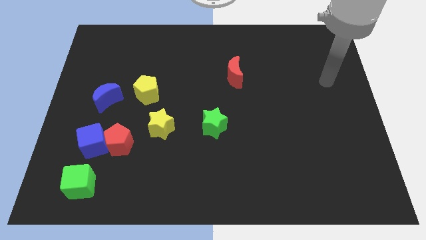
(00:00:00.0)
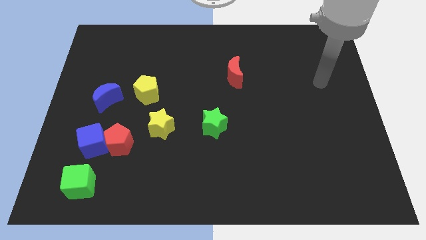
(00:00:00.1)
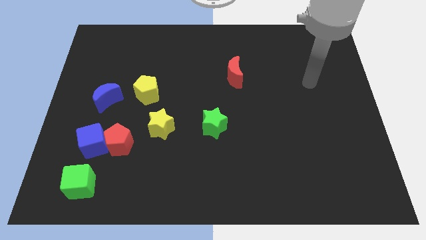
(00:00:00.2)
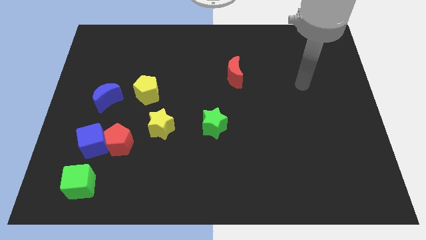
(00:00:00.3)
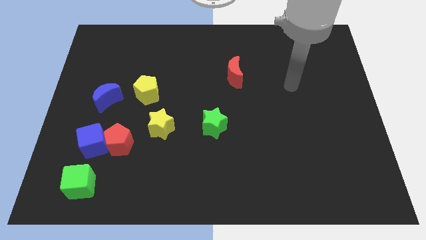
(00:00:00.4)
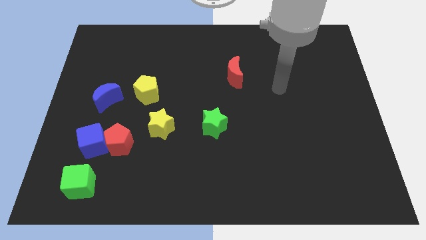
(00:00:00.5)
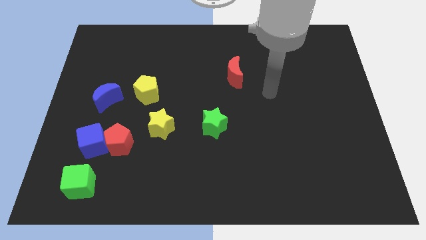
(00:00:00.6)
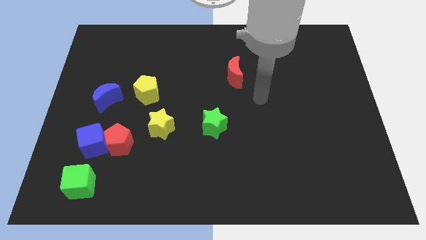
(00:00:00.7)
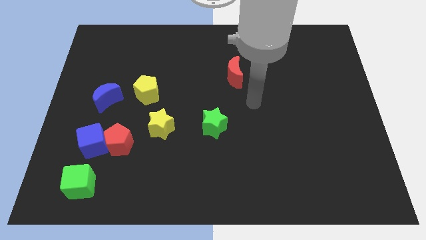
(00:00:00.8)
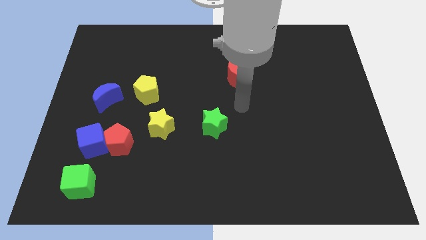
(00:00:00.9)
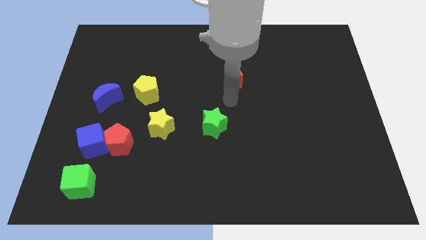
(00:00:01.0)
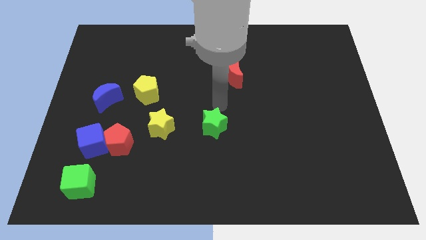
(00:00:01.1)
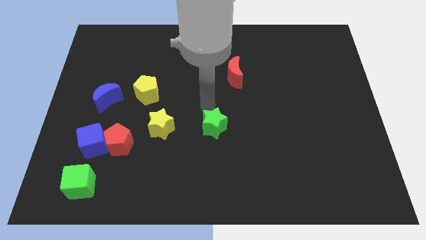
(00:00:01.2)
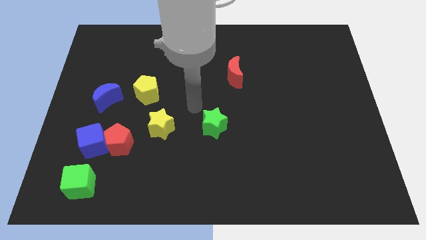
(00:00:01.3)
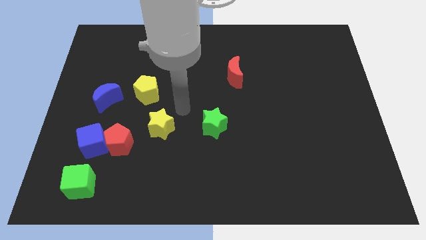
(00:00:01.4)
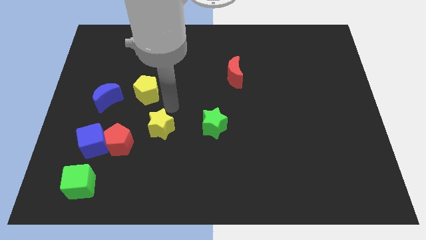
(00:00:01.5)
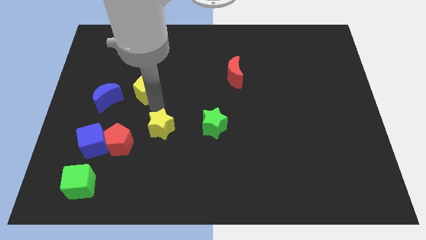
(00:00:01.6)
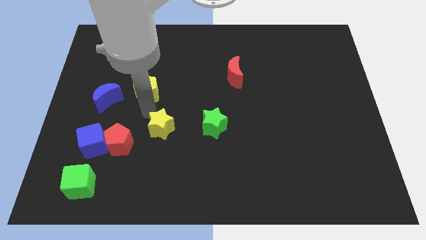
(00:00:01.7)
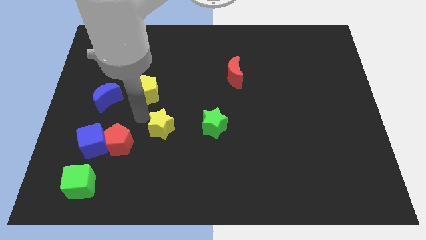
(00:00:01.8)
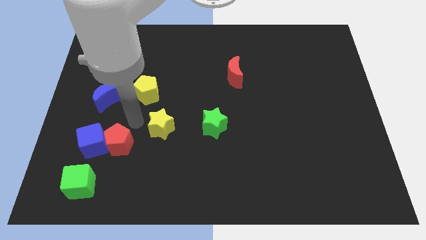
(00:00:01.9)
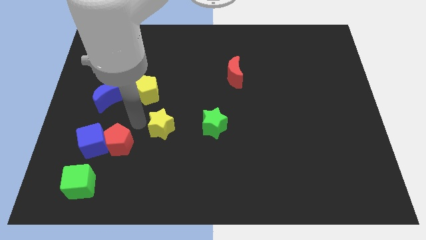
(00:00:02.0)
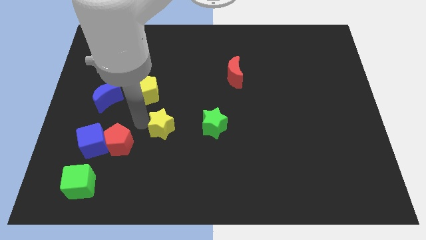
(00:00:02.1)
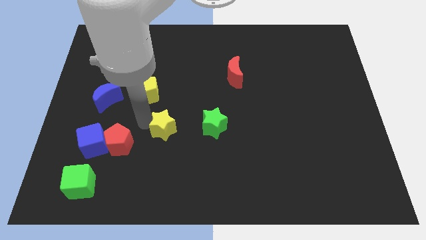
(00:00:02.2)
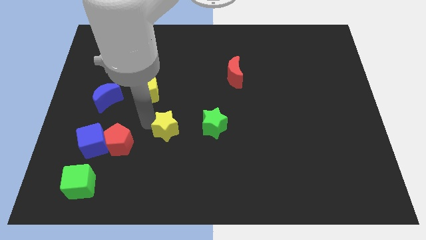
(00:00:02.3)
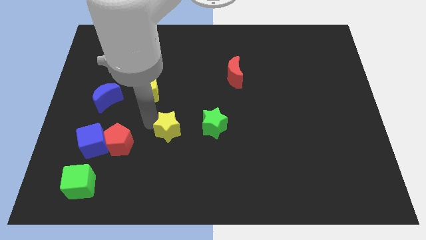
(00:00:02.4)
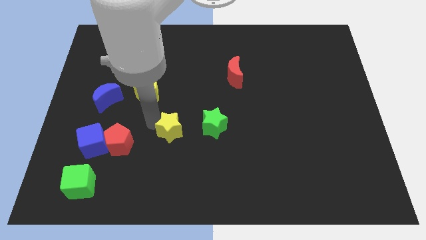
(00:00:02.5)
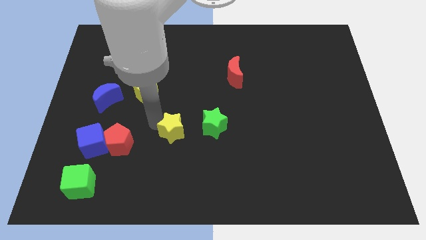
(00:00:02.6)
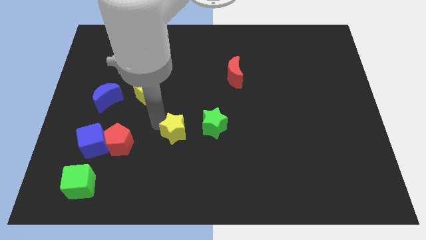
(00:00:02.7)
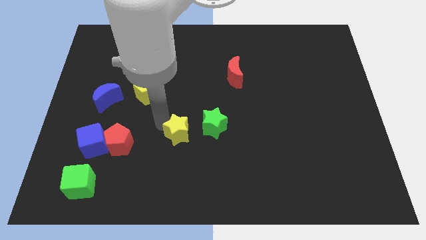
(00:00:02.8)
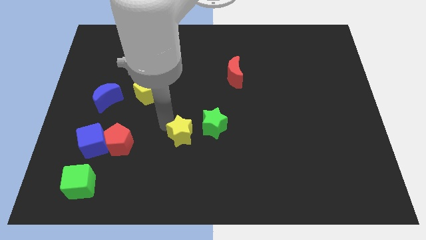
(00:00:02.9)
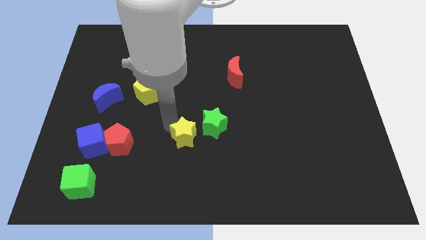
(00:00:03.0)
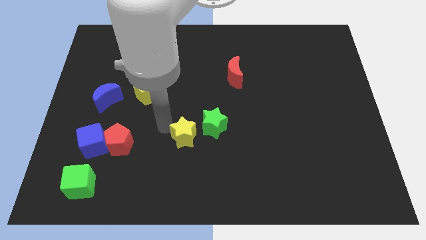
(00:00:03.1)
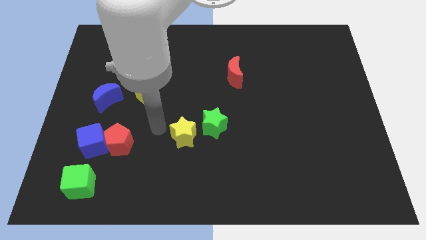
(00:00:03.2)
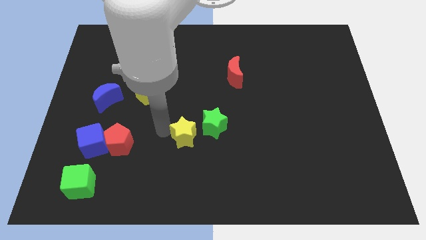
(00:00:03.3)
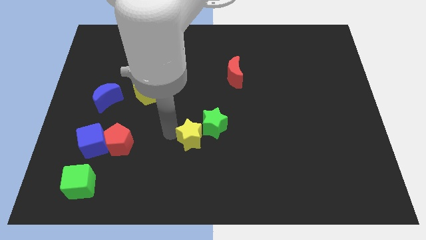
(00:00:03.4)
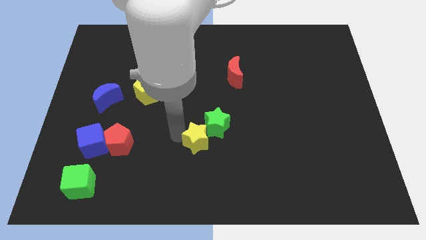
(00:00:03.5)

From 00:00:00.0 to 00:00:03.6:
push the yellow star somewhat right

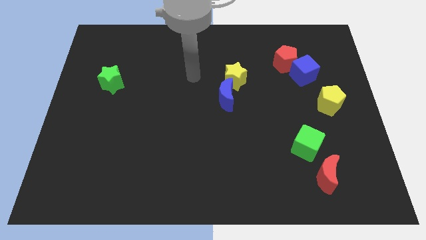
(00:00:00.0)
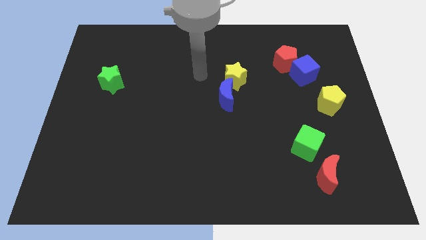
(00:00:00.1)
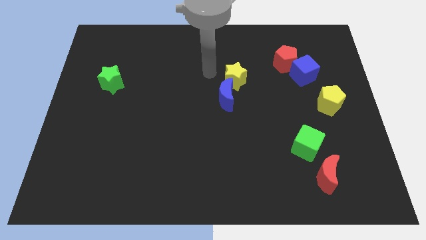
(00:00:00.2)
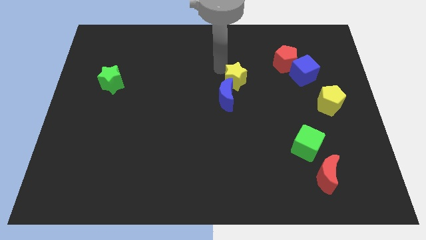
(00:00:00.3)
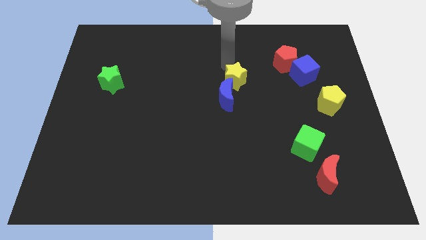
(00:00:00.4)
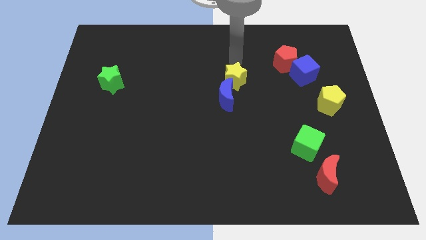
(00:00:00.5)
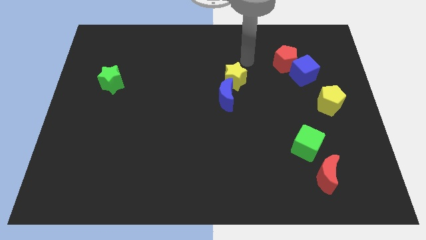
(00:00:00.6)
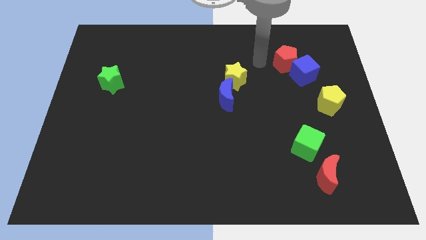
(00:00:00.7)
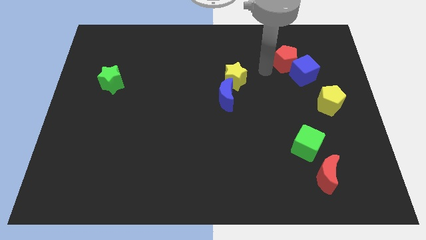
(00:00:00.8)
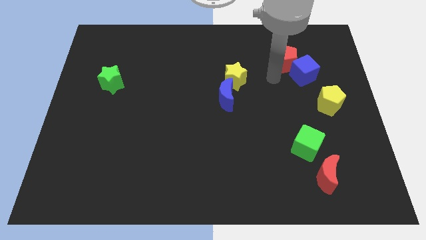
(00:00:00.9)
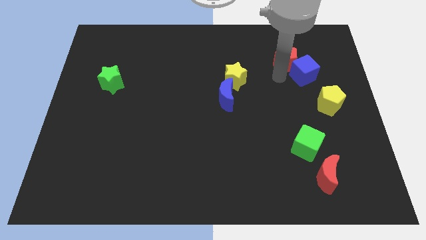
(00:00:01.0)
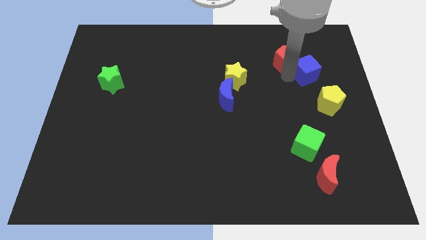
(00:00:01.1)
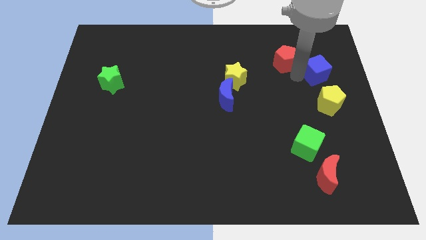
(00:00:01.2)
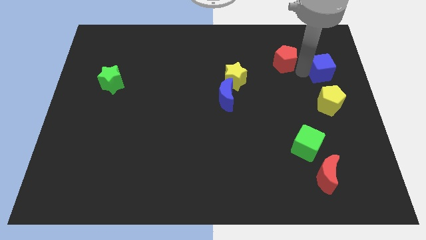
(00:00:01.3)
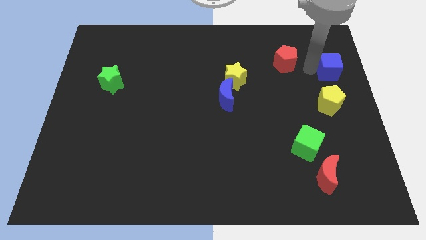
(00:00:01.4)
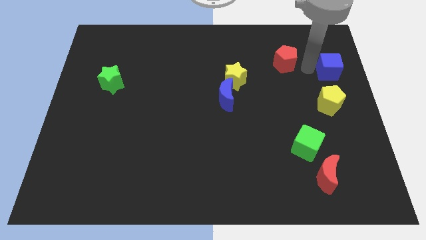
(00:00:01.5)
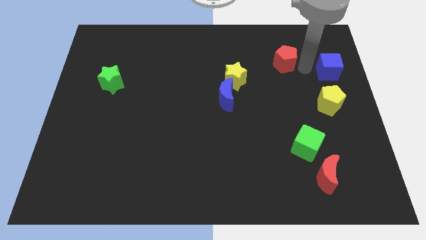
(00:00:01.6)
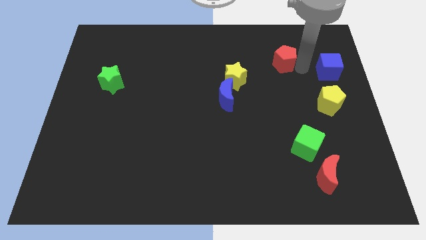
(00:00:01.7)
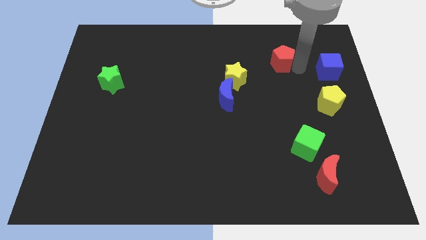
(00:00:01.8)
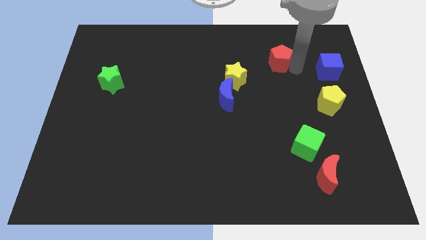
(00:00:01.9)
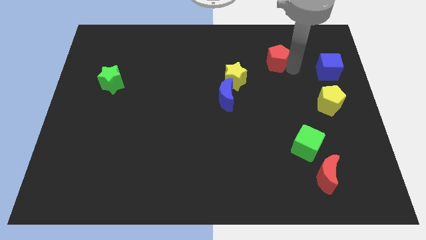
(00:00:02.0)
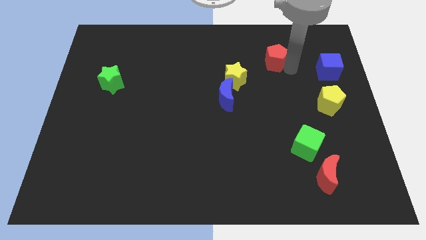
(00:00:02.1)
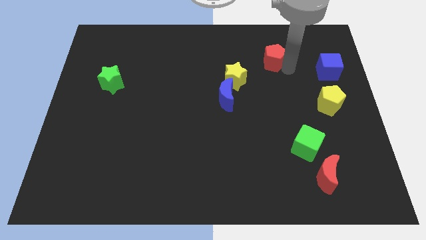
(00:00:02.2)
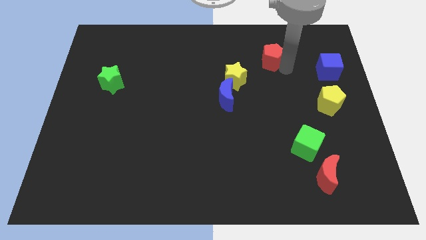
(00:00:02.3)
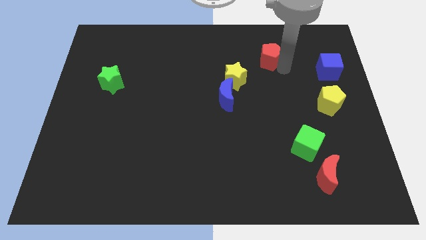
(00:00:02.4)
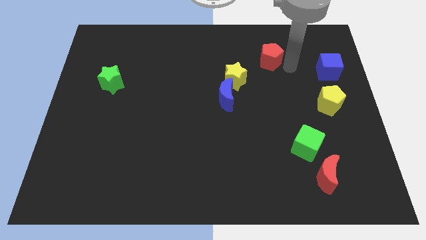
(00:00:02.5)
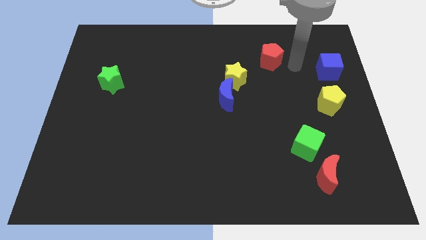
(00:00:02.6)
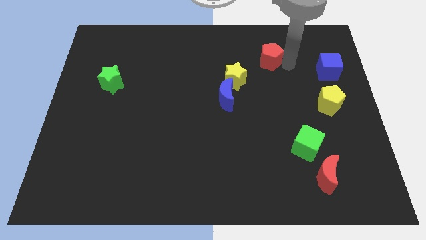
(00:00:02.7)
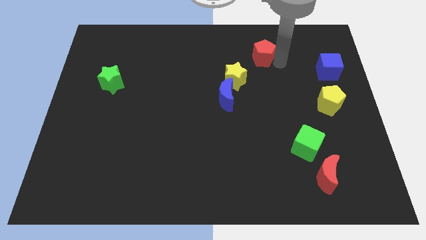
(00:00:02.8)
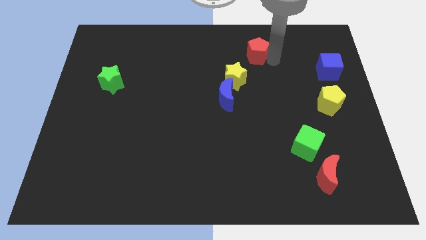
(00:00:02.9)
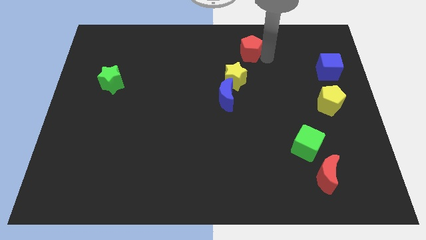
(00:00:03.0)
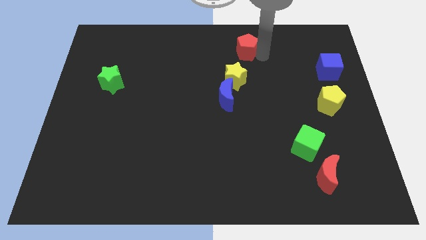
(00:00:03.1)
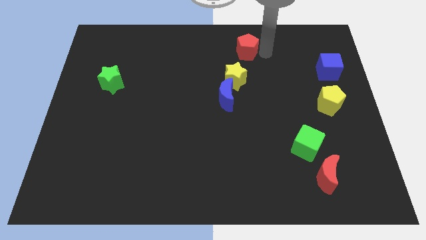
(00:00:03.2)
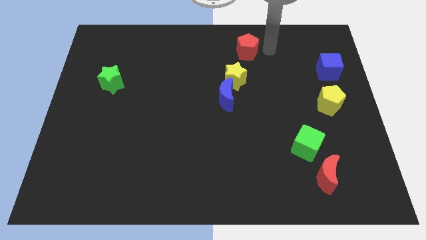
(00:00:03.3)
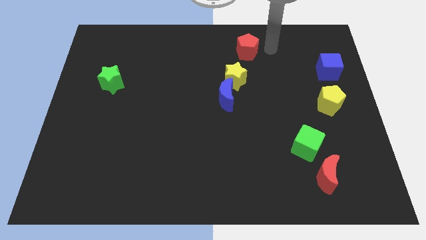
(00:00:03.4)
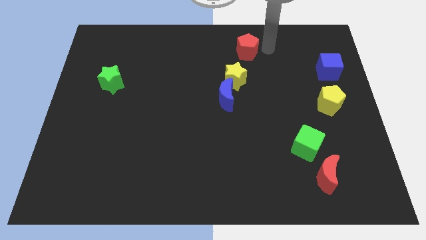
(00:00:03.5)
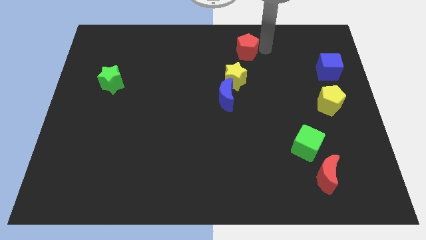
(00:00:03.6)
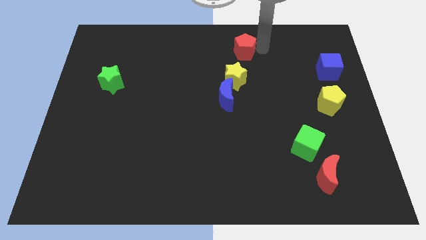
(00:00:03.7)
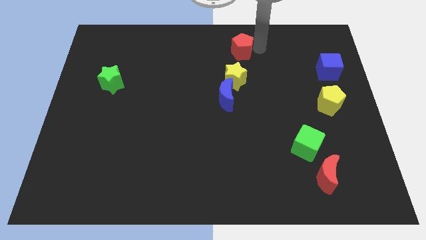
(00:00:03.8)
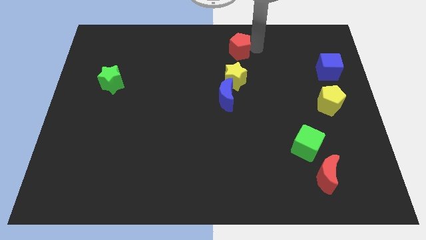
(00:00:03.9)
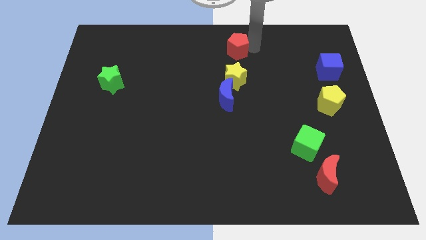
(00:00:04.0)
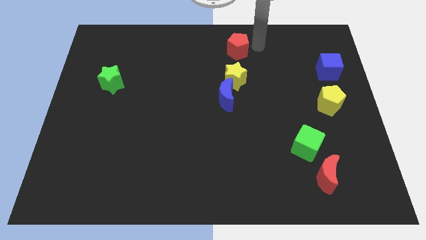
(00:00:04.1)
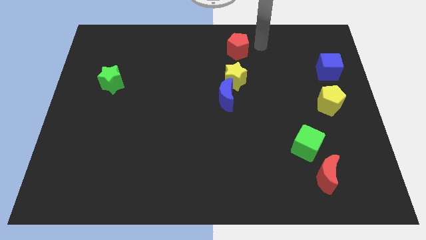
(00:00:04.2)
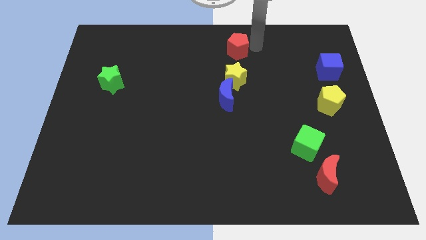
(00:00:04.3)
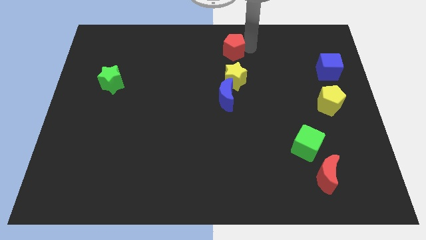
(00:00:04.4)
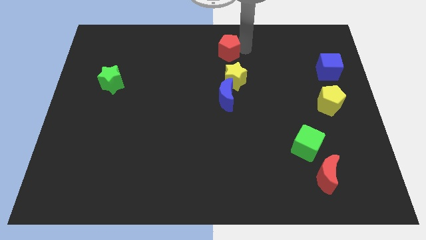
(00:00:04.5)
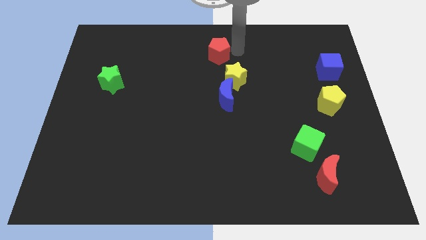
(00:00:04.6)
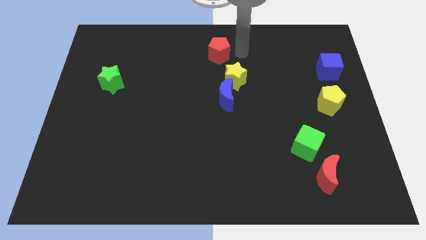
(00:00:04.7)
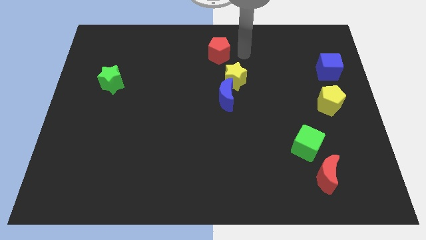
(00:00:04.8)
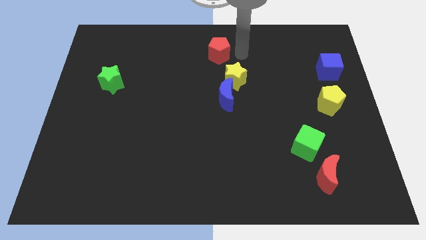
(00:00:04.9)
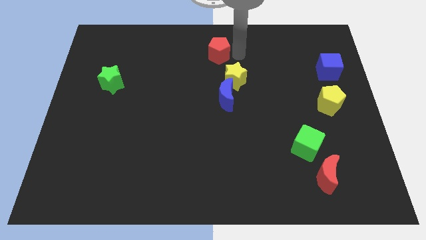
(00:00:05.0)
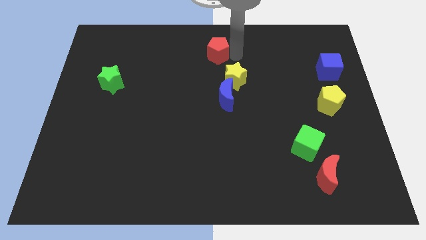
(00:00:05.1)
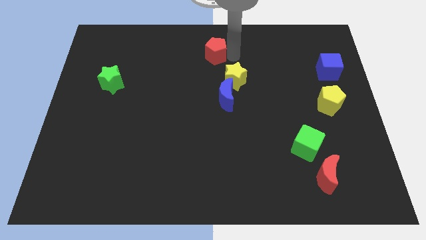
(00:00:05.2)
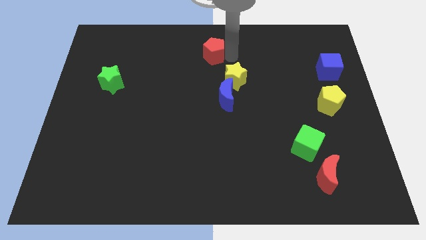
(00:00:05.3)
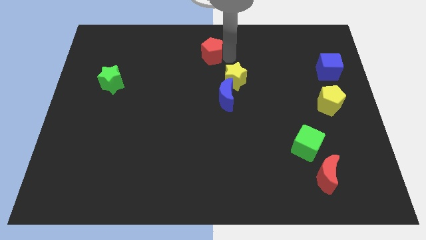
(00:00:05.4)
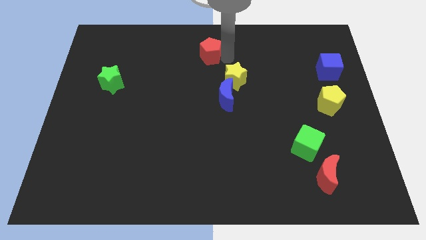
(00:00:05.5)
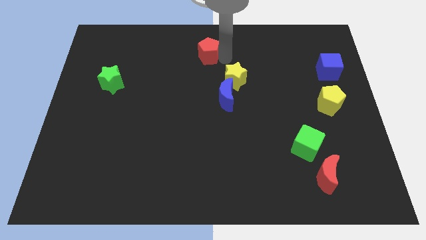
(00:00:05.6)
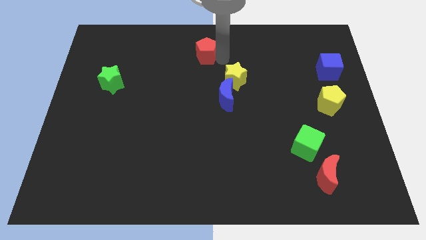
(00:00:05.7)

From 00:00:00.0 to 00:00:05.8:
push the red pentagon left
